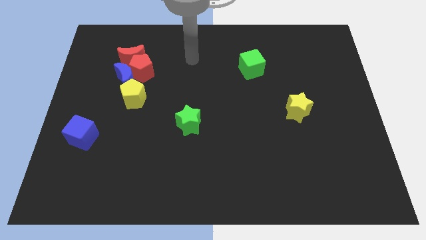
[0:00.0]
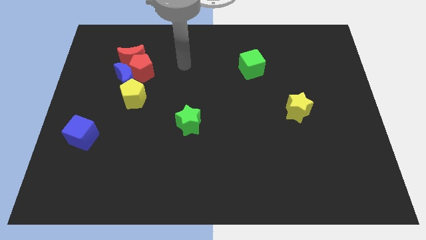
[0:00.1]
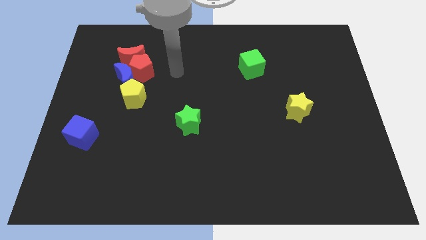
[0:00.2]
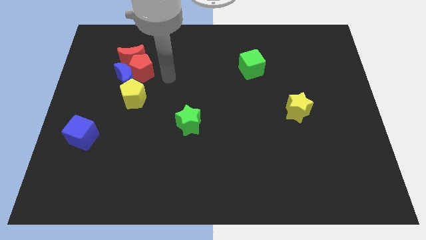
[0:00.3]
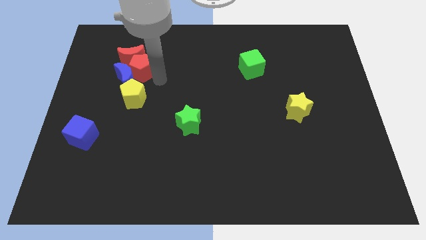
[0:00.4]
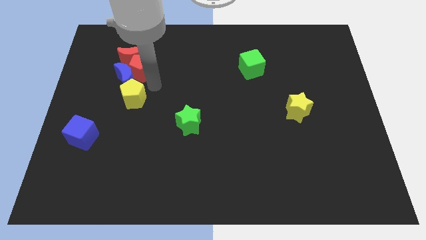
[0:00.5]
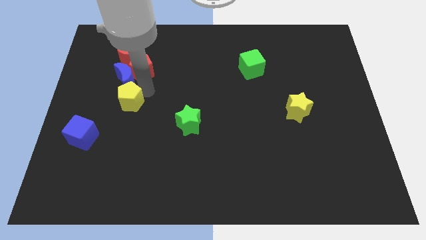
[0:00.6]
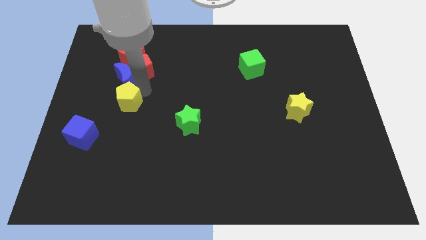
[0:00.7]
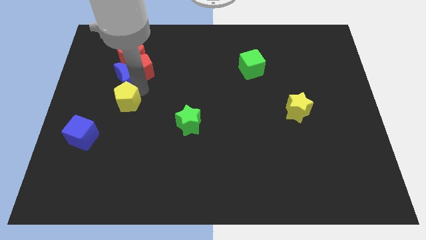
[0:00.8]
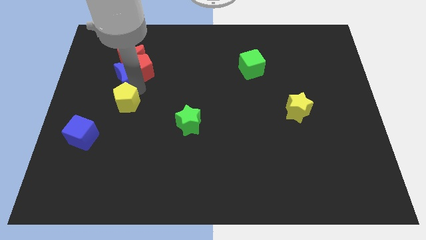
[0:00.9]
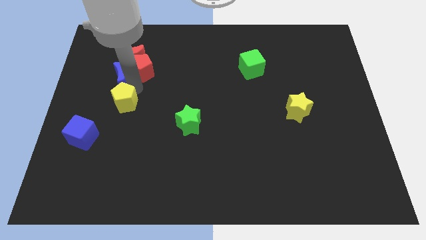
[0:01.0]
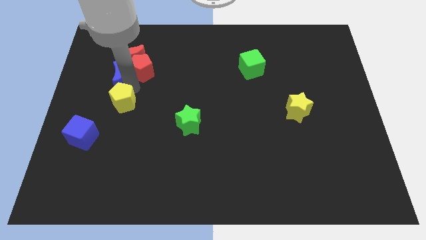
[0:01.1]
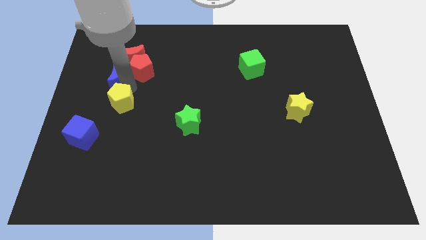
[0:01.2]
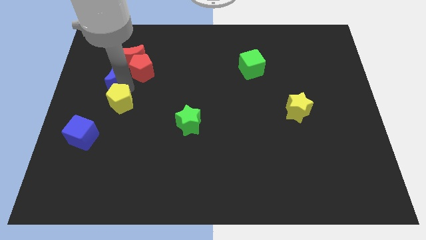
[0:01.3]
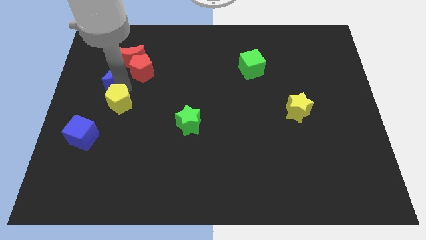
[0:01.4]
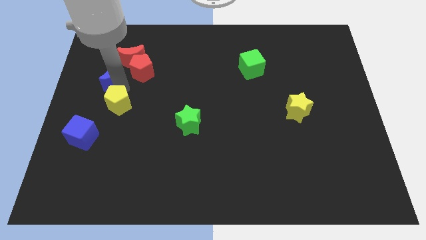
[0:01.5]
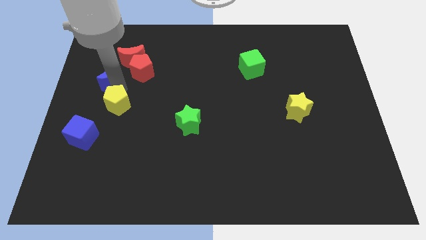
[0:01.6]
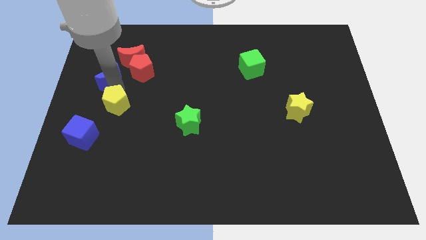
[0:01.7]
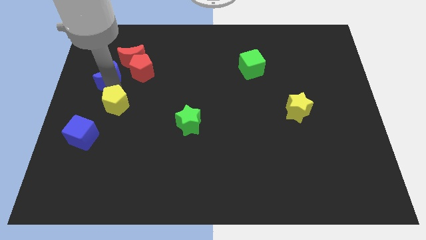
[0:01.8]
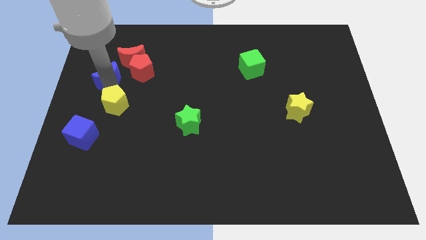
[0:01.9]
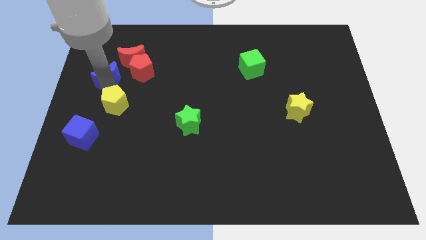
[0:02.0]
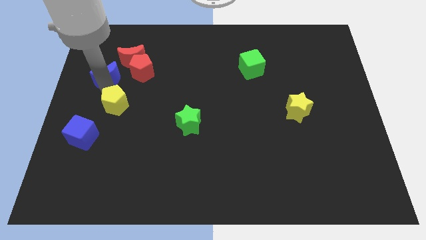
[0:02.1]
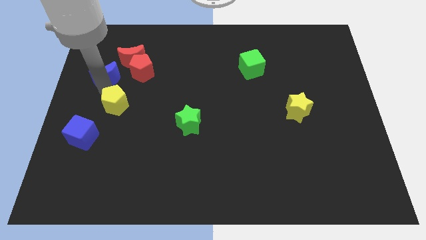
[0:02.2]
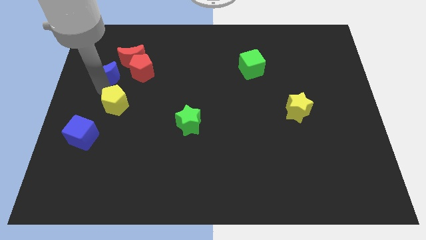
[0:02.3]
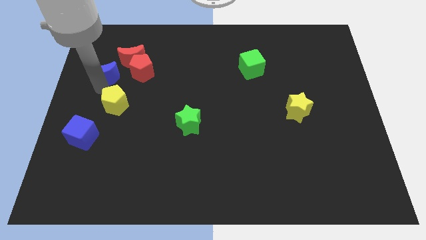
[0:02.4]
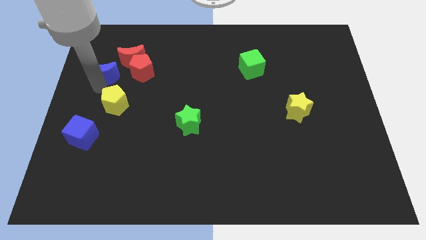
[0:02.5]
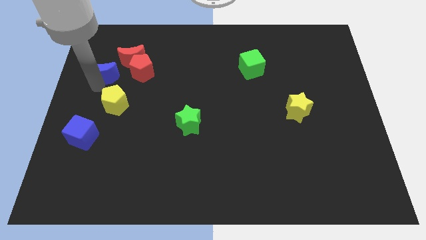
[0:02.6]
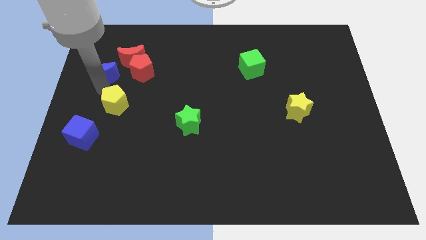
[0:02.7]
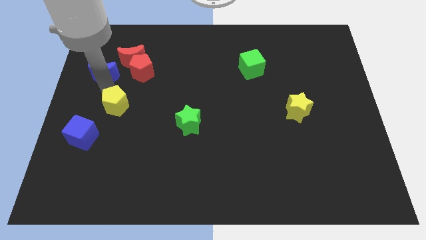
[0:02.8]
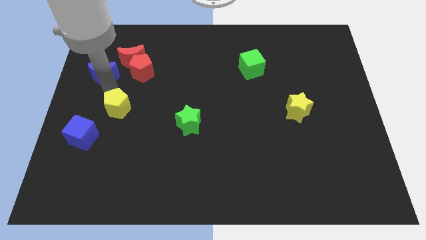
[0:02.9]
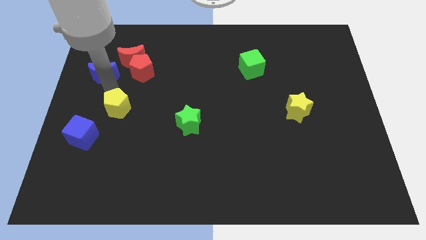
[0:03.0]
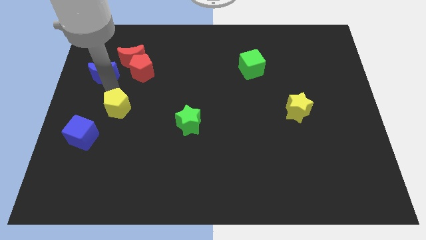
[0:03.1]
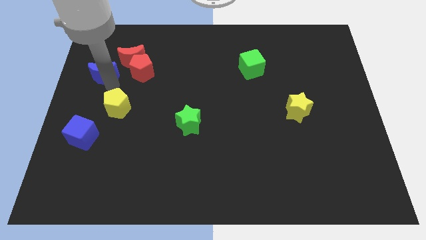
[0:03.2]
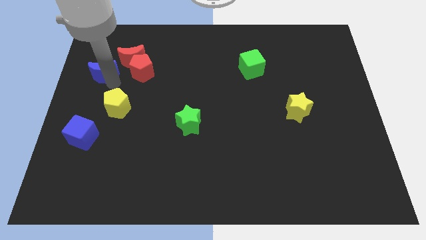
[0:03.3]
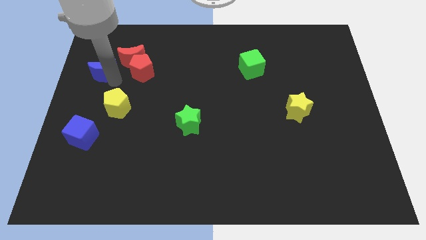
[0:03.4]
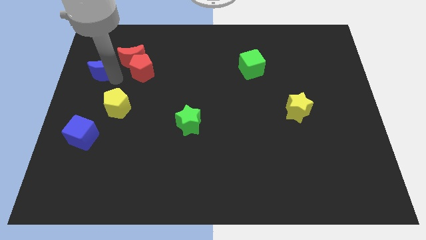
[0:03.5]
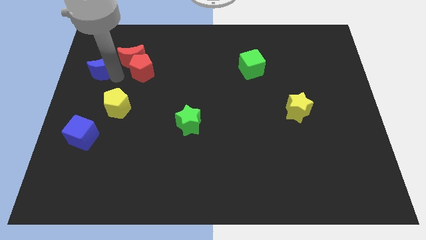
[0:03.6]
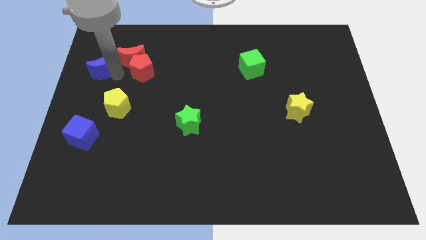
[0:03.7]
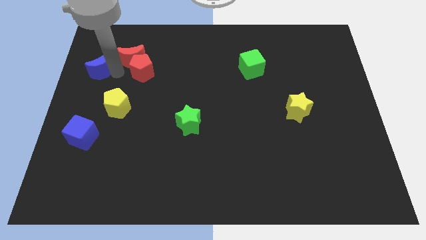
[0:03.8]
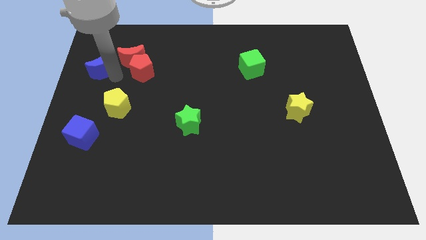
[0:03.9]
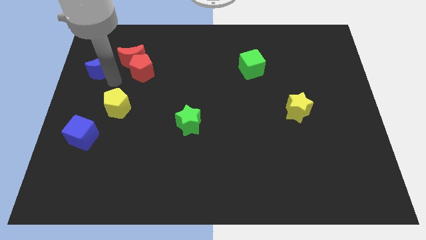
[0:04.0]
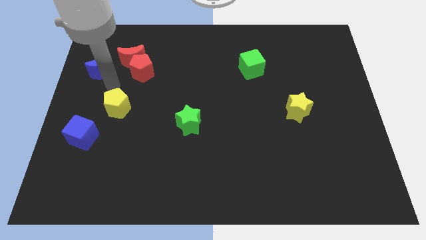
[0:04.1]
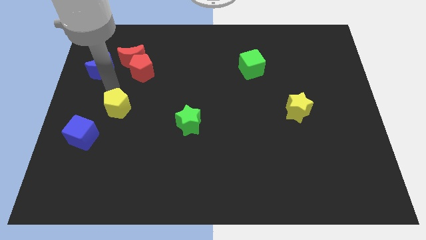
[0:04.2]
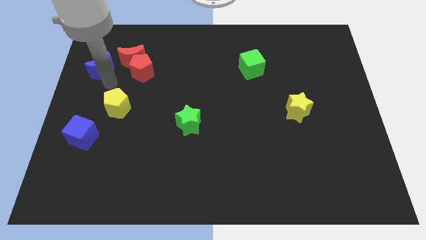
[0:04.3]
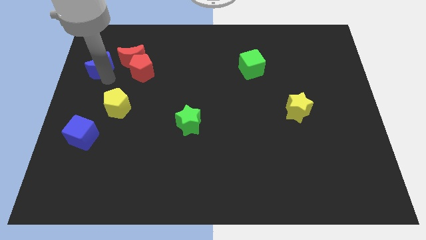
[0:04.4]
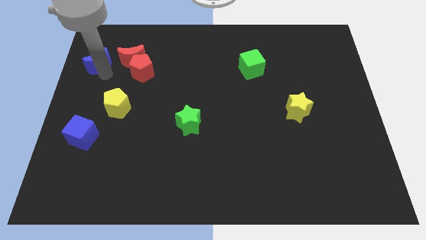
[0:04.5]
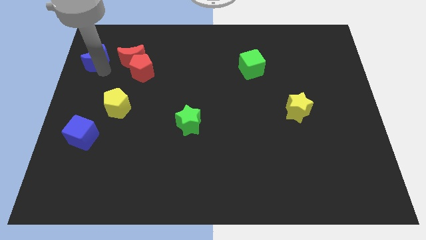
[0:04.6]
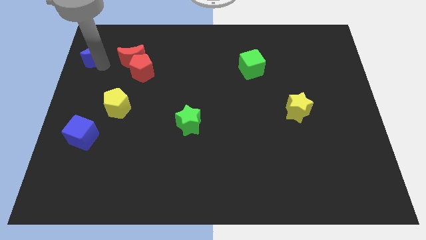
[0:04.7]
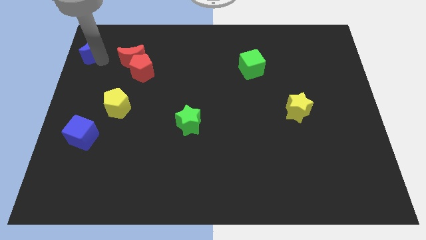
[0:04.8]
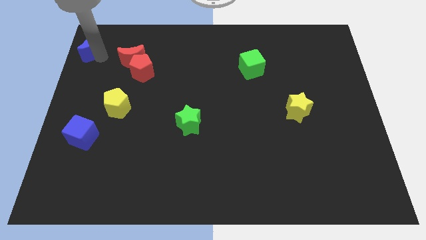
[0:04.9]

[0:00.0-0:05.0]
put the blue moon to the upper left corner

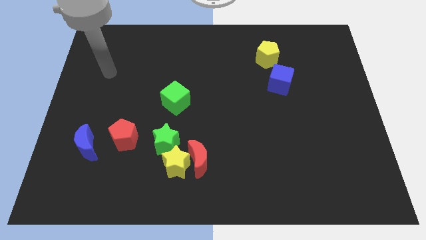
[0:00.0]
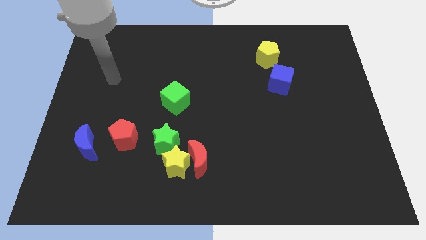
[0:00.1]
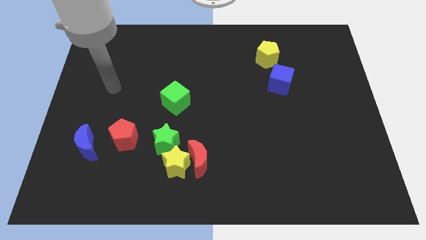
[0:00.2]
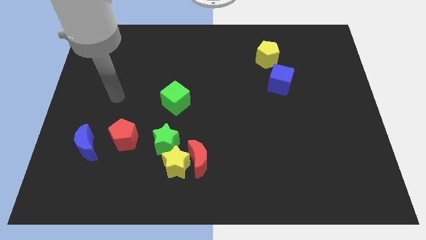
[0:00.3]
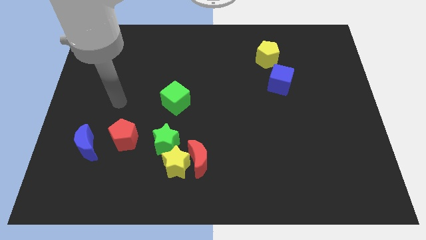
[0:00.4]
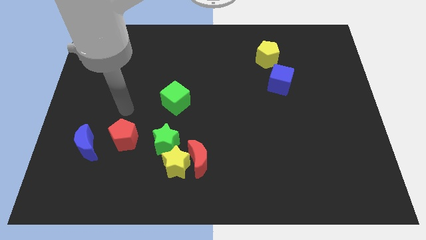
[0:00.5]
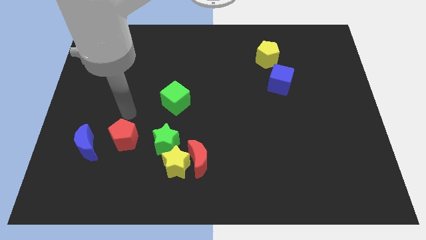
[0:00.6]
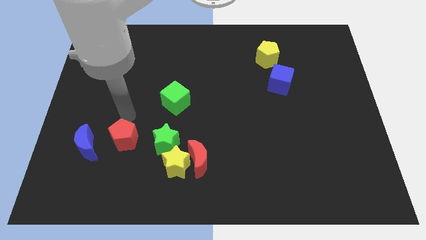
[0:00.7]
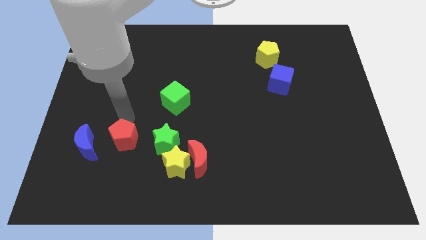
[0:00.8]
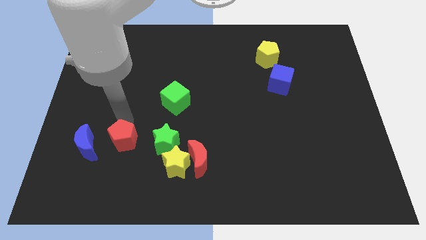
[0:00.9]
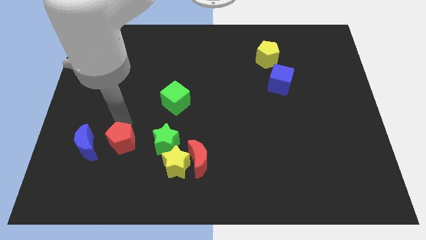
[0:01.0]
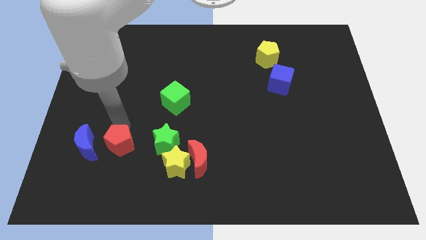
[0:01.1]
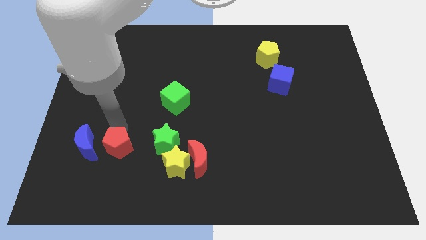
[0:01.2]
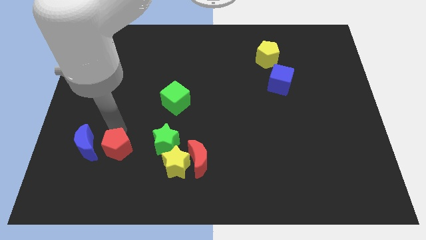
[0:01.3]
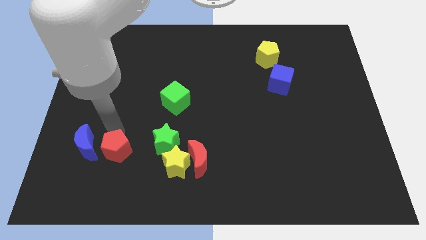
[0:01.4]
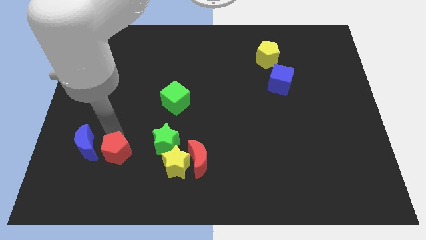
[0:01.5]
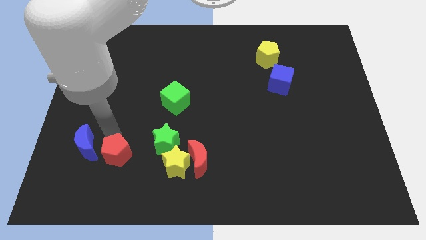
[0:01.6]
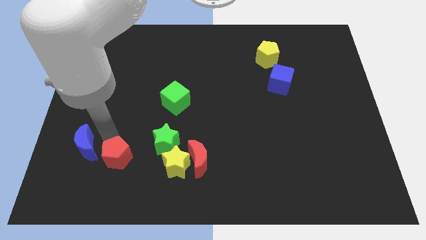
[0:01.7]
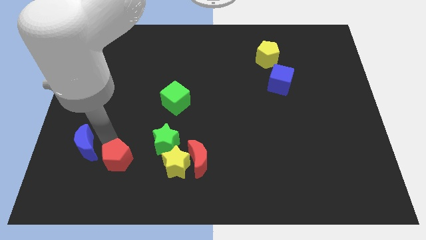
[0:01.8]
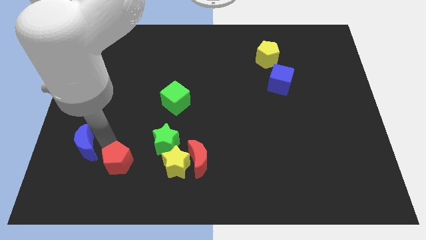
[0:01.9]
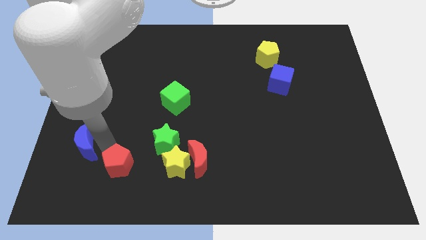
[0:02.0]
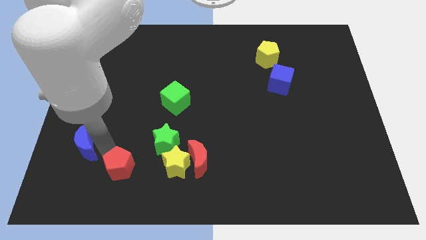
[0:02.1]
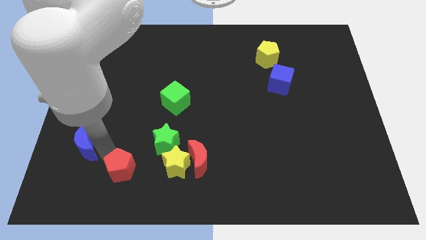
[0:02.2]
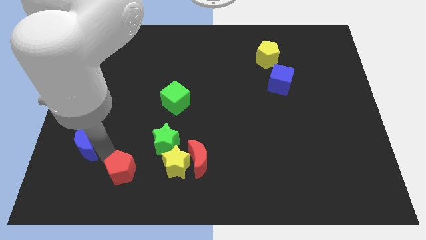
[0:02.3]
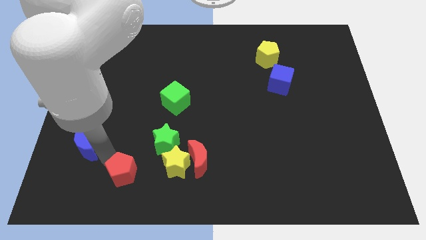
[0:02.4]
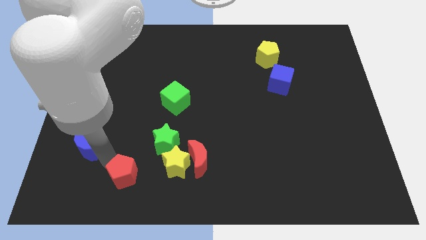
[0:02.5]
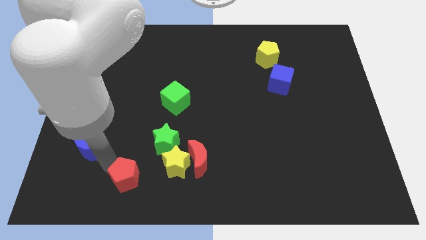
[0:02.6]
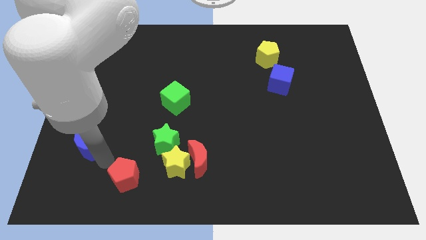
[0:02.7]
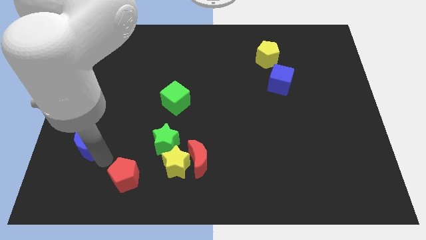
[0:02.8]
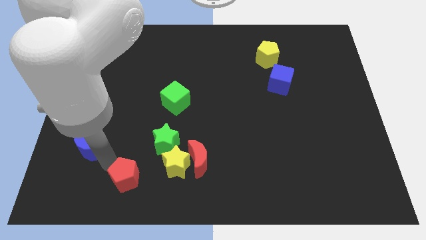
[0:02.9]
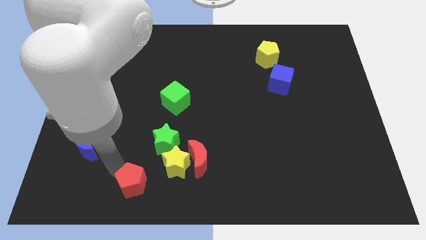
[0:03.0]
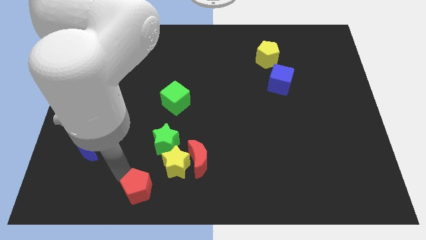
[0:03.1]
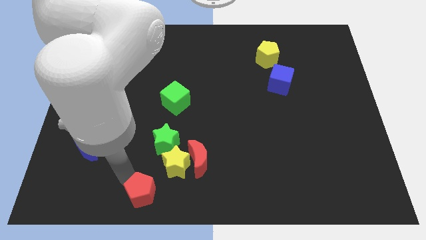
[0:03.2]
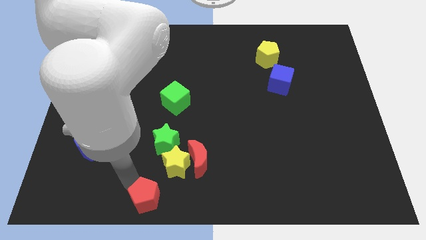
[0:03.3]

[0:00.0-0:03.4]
move the red pentagon to the bottom side
